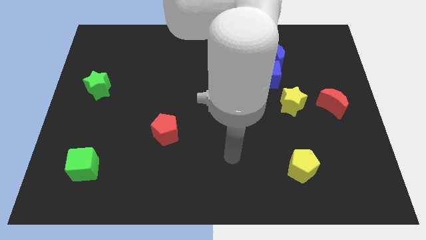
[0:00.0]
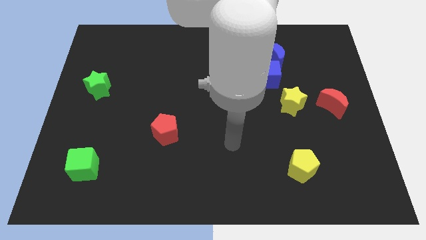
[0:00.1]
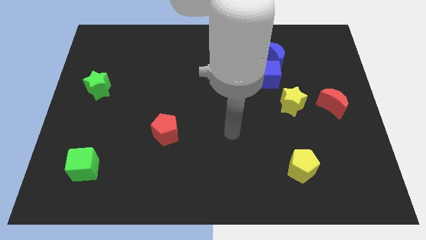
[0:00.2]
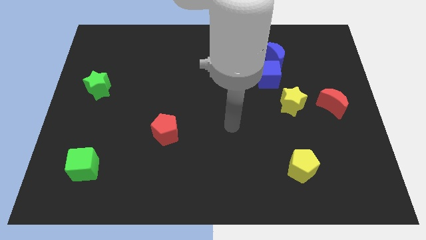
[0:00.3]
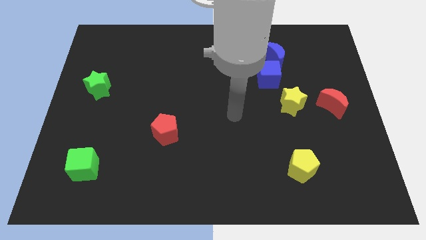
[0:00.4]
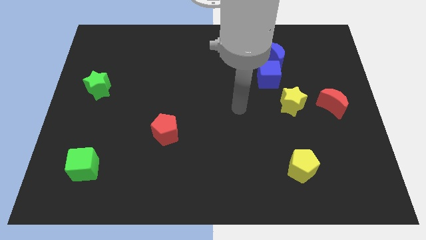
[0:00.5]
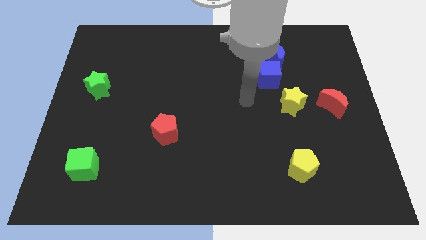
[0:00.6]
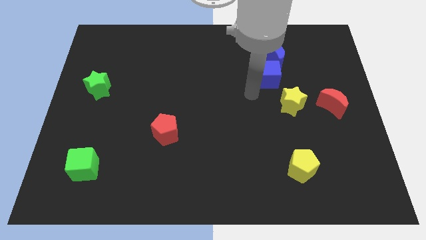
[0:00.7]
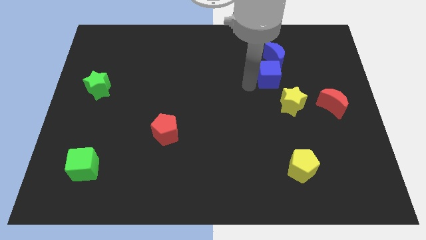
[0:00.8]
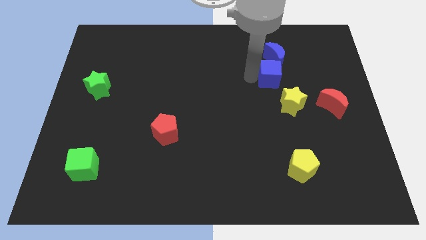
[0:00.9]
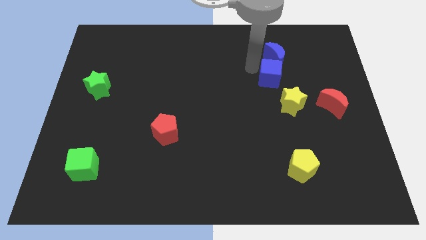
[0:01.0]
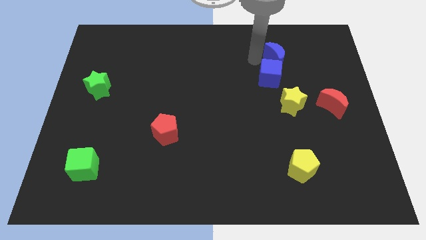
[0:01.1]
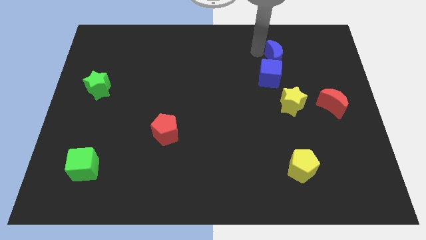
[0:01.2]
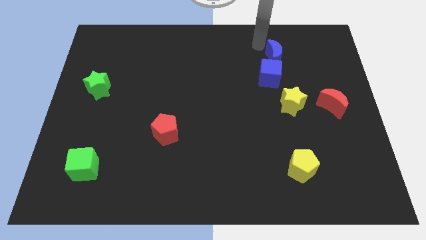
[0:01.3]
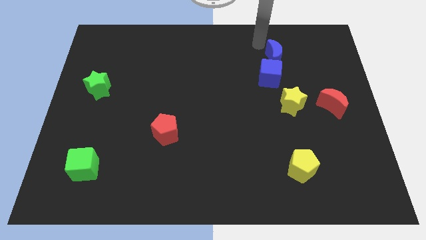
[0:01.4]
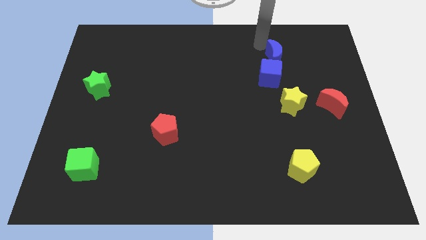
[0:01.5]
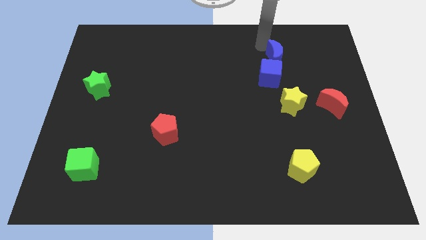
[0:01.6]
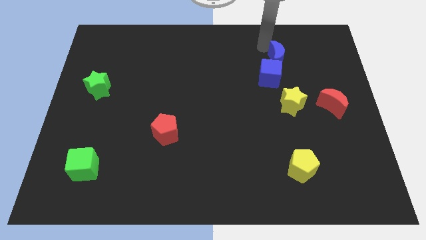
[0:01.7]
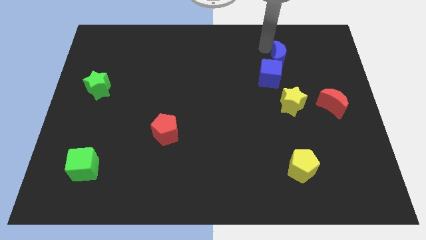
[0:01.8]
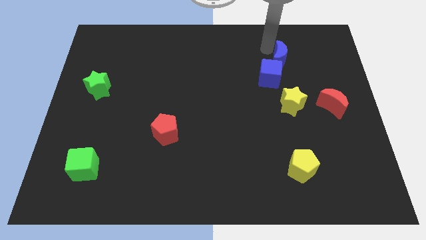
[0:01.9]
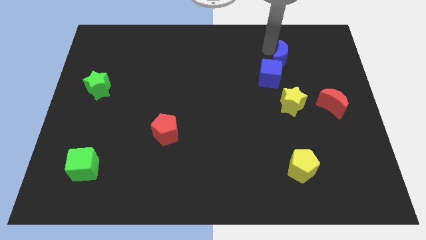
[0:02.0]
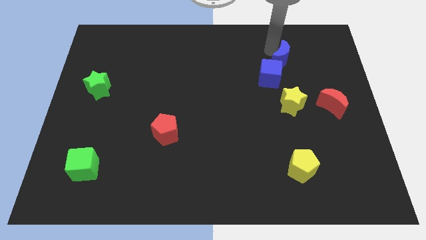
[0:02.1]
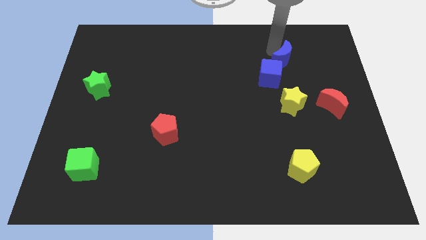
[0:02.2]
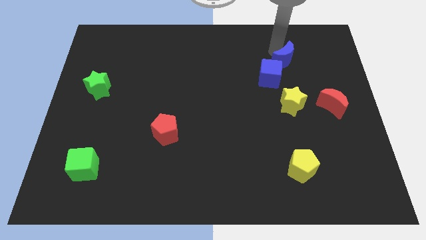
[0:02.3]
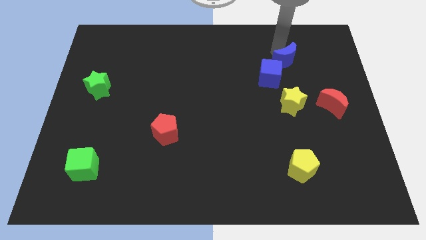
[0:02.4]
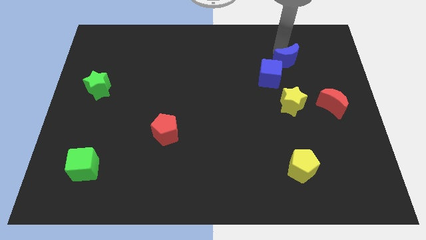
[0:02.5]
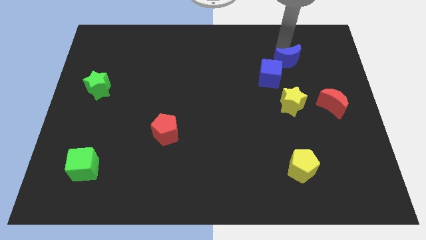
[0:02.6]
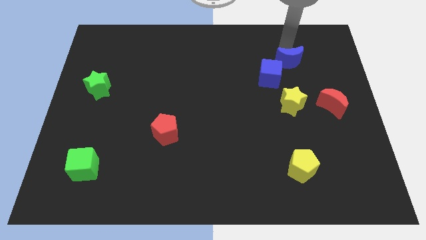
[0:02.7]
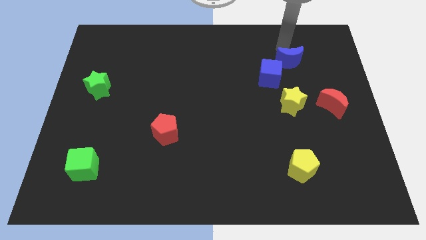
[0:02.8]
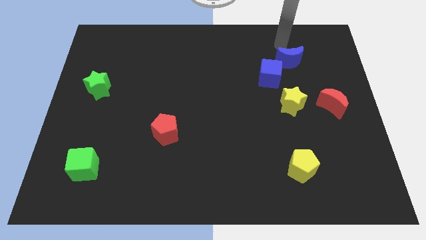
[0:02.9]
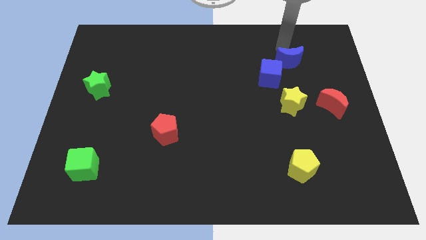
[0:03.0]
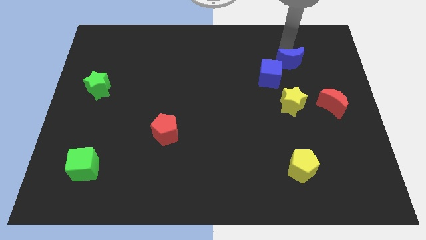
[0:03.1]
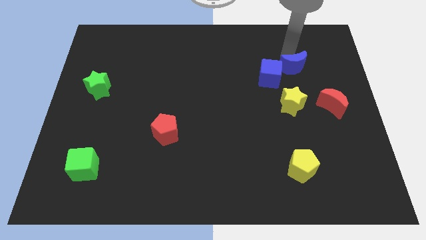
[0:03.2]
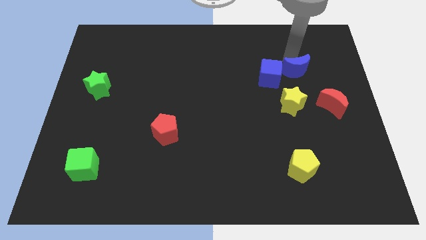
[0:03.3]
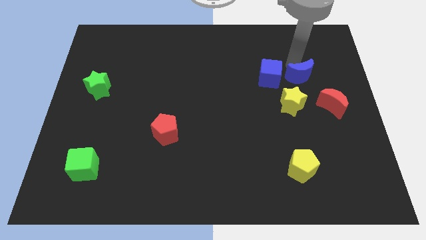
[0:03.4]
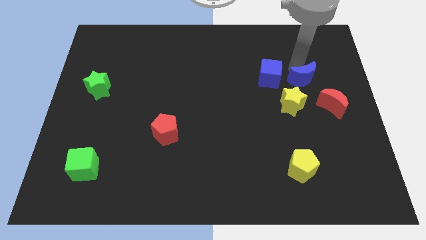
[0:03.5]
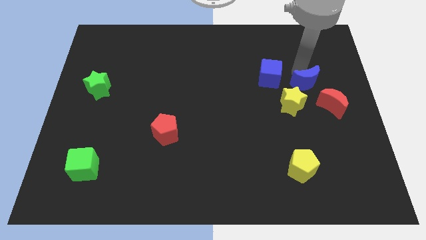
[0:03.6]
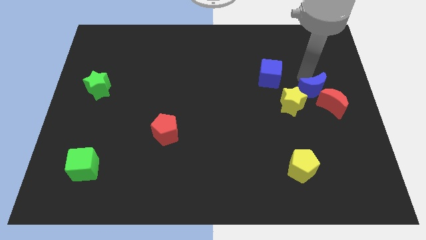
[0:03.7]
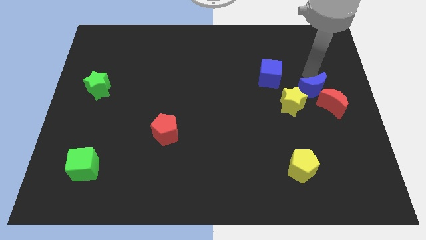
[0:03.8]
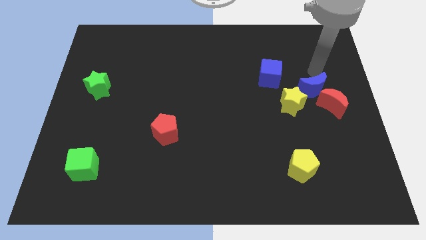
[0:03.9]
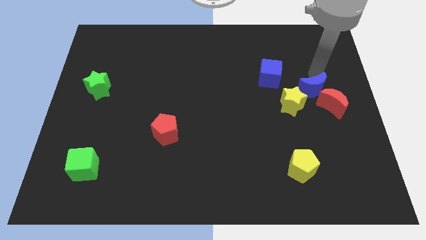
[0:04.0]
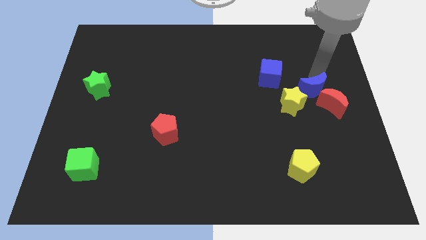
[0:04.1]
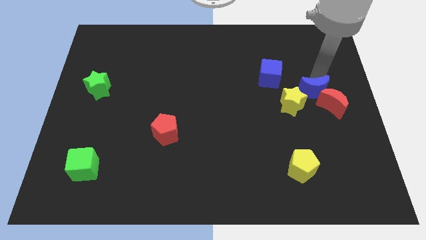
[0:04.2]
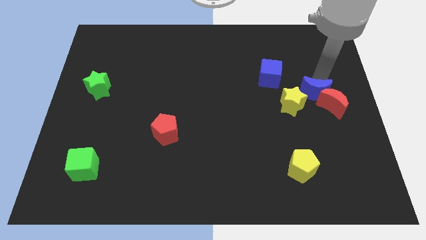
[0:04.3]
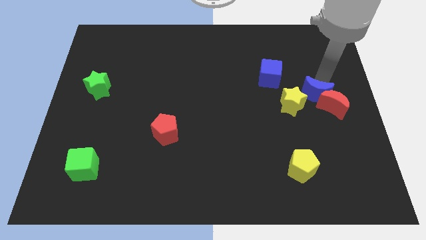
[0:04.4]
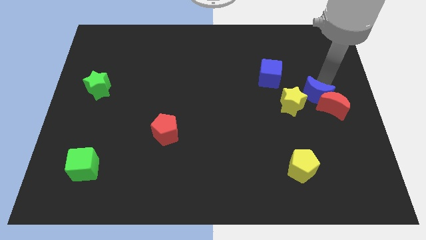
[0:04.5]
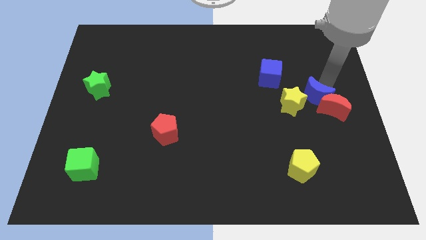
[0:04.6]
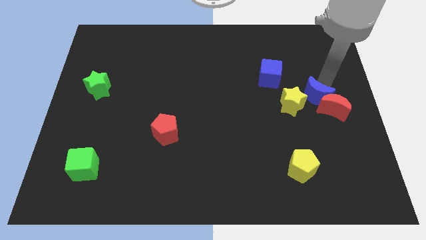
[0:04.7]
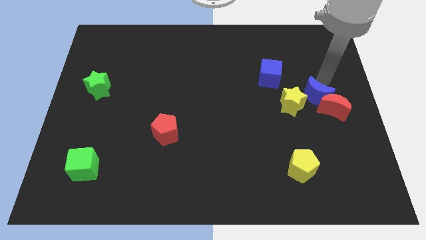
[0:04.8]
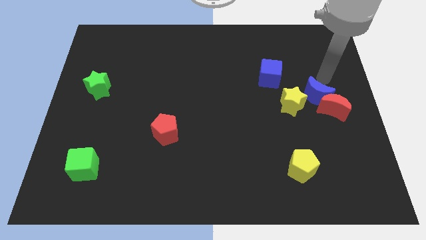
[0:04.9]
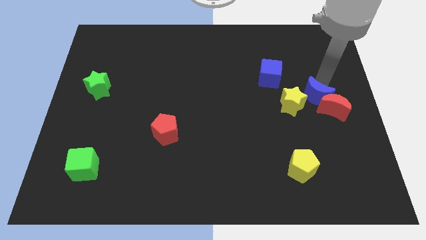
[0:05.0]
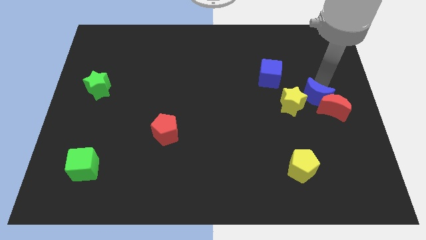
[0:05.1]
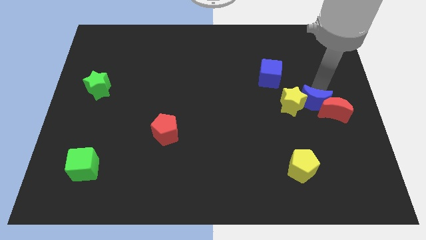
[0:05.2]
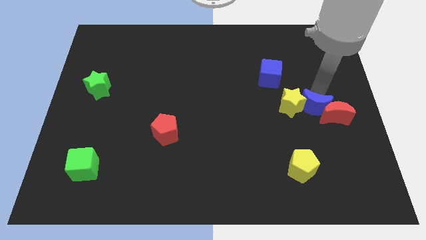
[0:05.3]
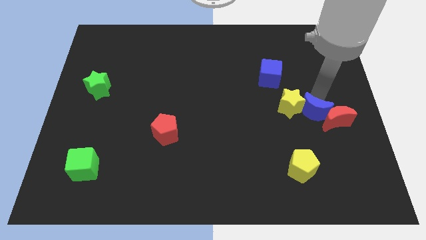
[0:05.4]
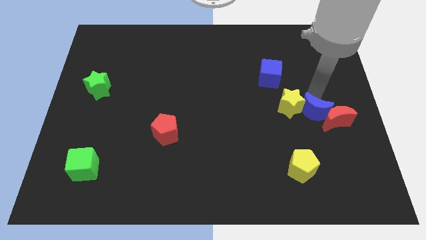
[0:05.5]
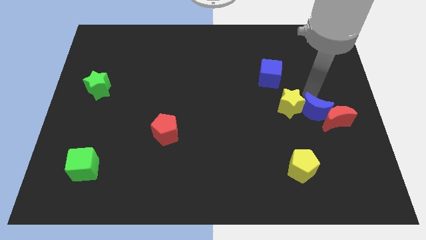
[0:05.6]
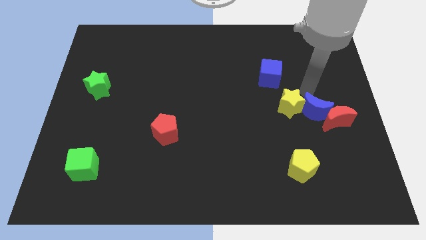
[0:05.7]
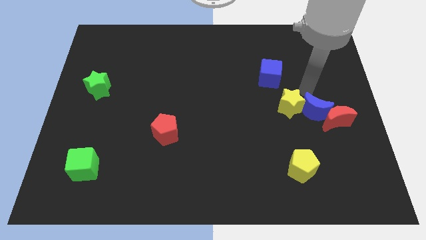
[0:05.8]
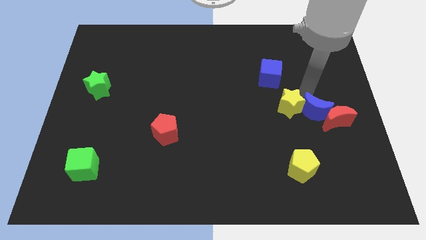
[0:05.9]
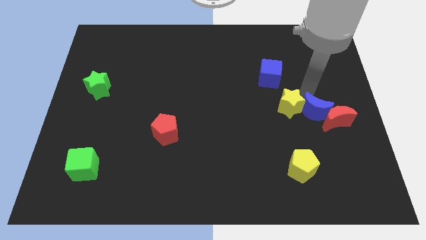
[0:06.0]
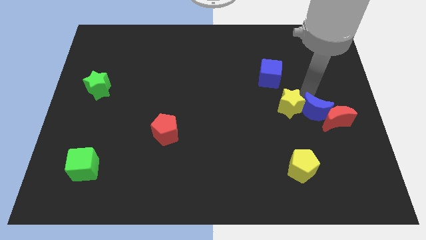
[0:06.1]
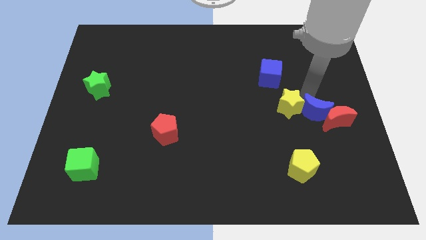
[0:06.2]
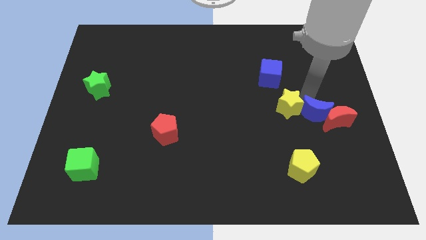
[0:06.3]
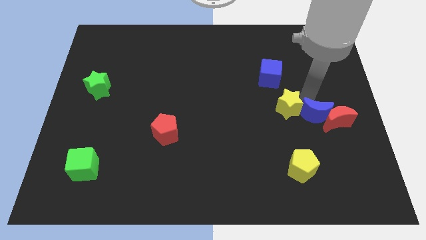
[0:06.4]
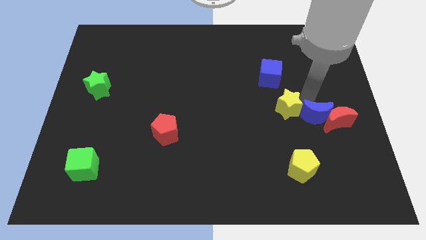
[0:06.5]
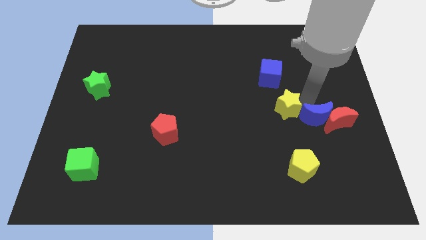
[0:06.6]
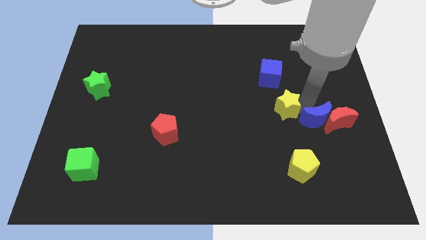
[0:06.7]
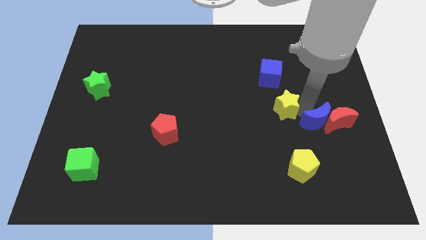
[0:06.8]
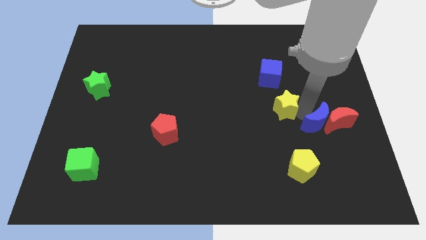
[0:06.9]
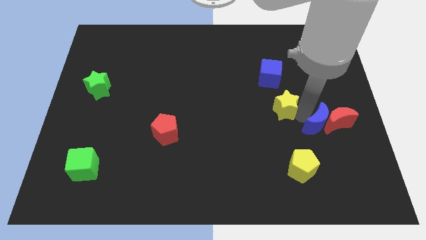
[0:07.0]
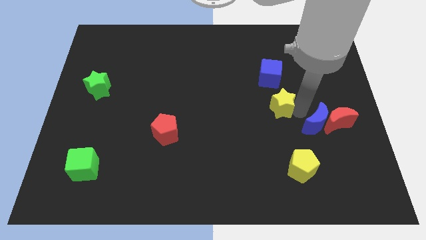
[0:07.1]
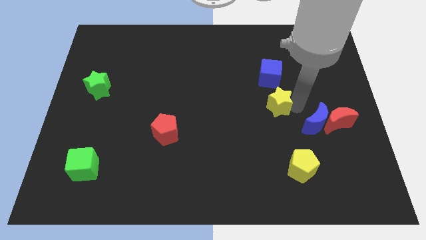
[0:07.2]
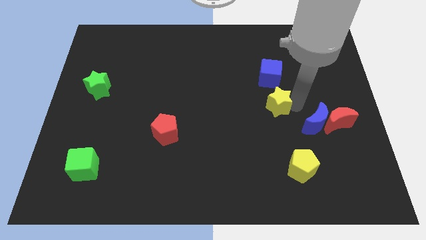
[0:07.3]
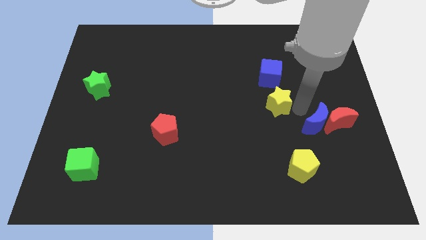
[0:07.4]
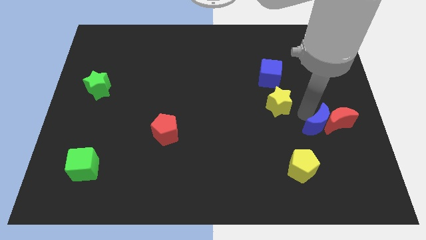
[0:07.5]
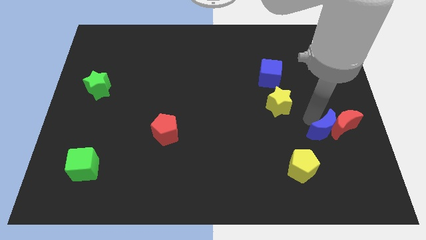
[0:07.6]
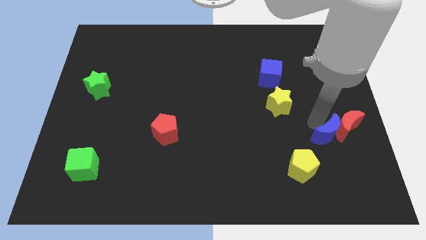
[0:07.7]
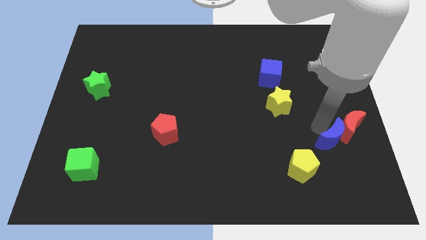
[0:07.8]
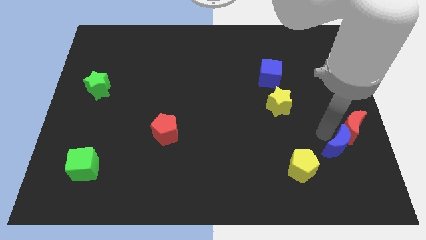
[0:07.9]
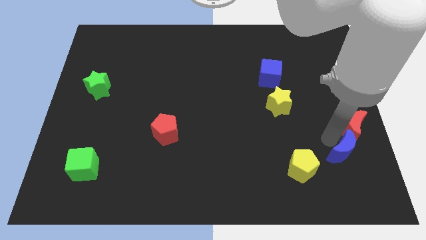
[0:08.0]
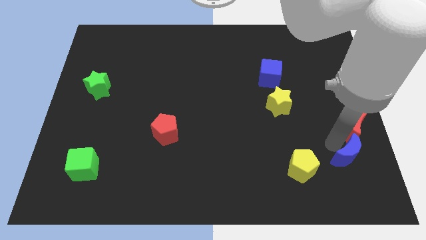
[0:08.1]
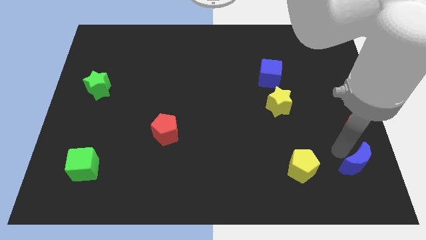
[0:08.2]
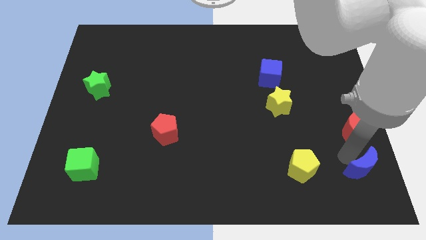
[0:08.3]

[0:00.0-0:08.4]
move the blue moon to the bottom right of the board
